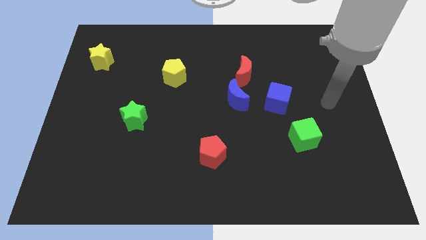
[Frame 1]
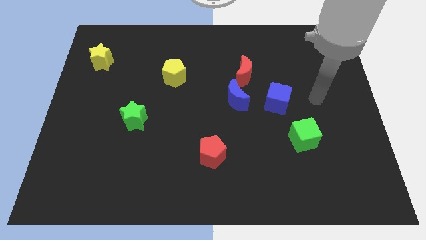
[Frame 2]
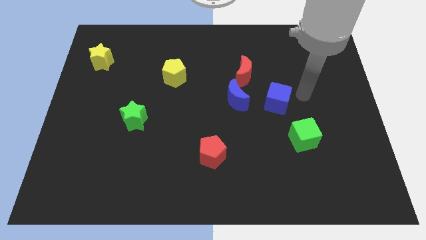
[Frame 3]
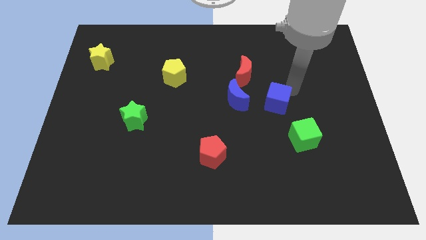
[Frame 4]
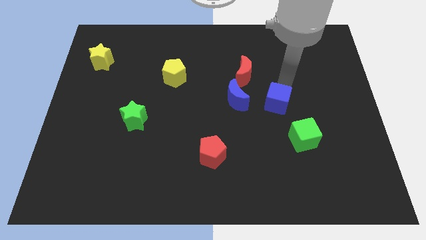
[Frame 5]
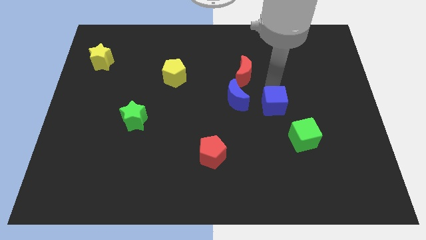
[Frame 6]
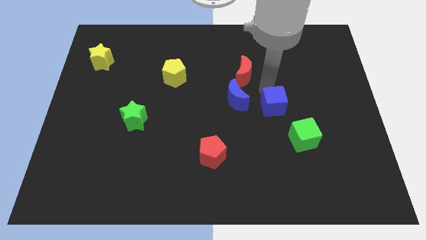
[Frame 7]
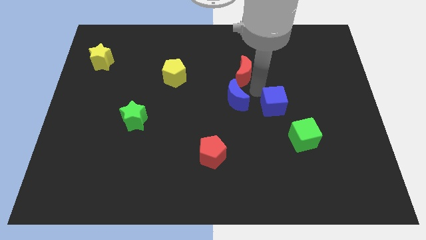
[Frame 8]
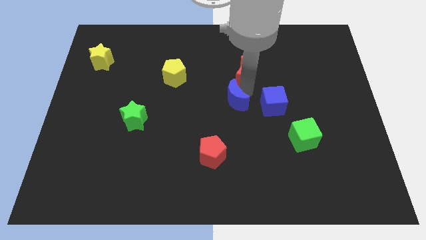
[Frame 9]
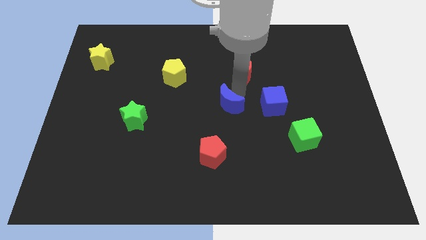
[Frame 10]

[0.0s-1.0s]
move the red moon away from the blue moon

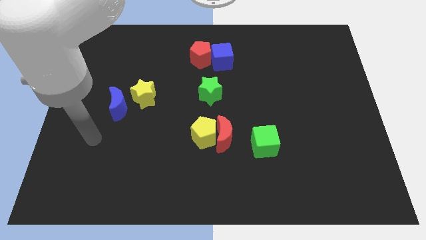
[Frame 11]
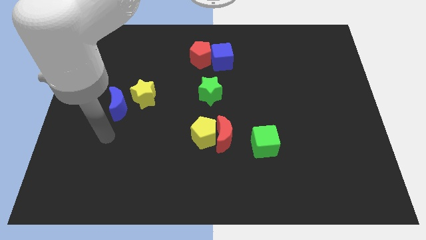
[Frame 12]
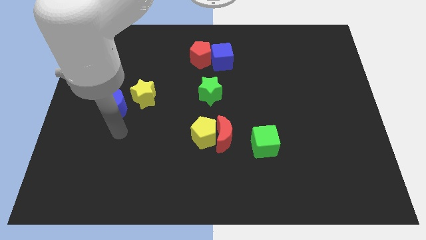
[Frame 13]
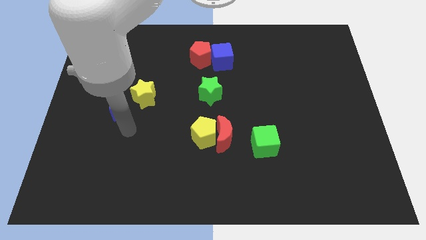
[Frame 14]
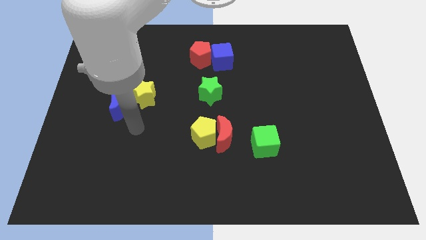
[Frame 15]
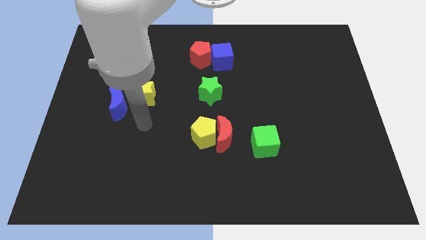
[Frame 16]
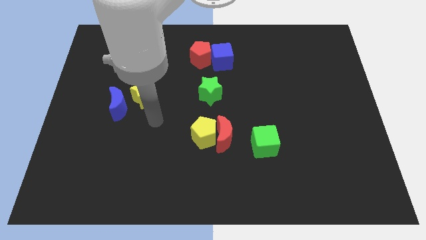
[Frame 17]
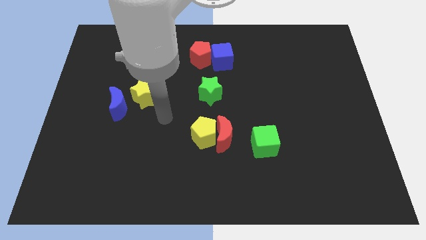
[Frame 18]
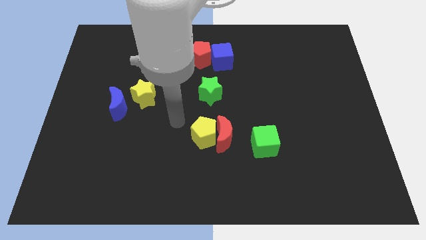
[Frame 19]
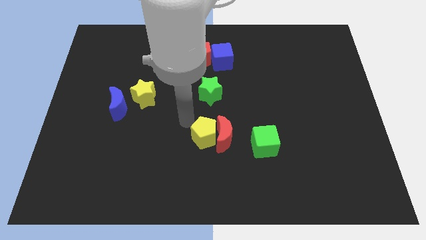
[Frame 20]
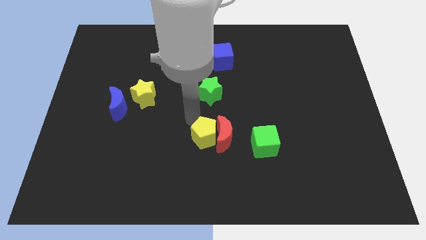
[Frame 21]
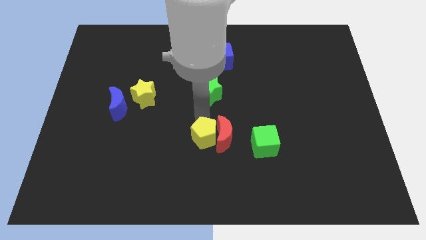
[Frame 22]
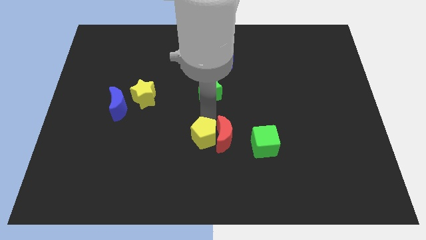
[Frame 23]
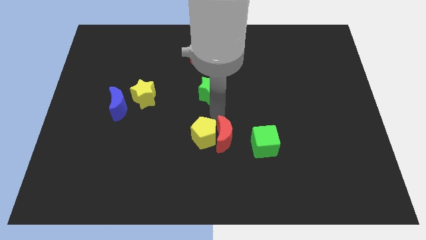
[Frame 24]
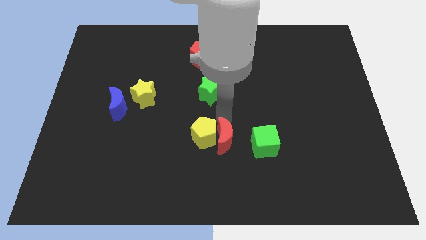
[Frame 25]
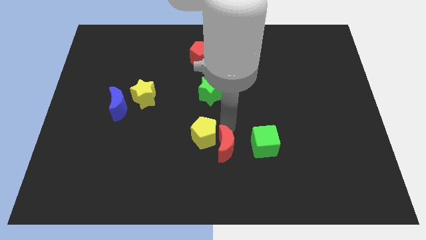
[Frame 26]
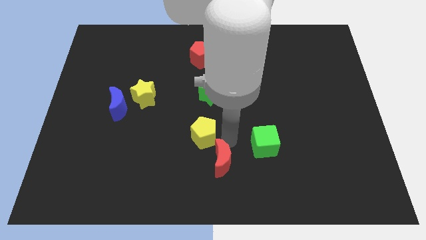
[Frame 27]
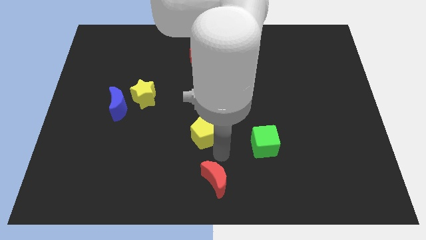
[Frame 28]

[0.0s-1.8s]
move the yellow pentagon away from the red moon

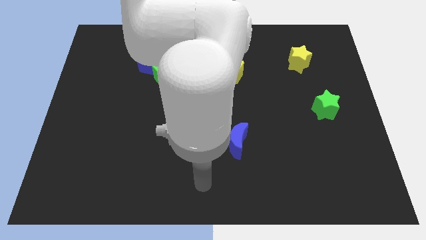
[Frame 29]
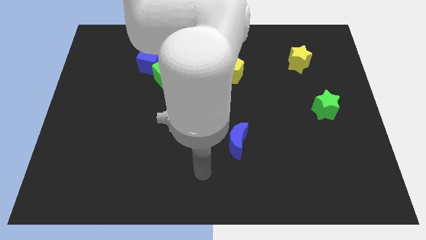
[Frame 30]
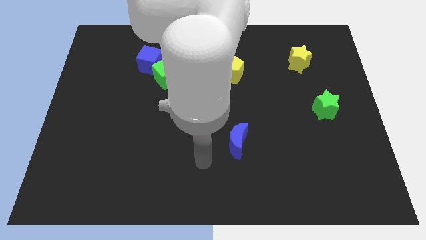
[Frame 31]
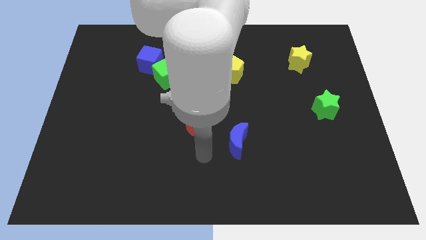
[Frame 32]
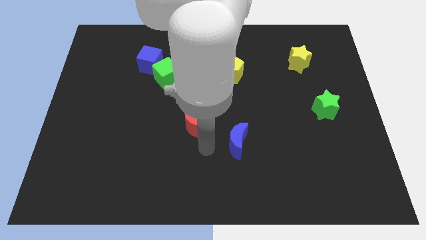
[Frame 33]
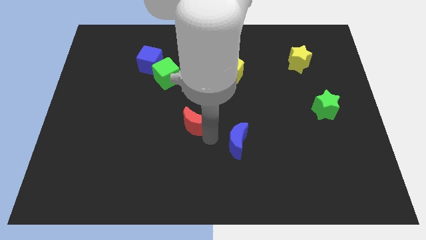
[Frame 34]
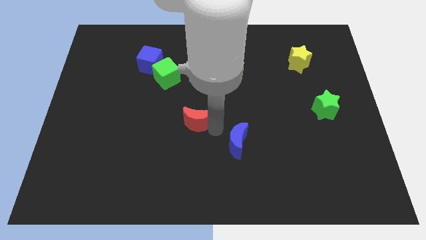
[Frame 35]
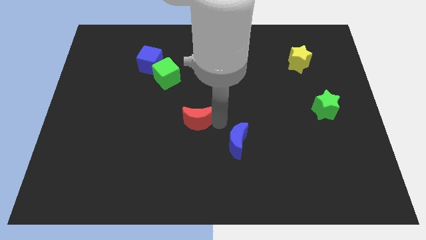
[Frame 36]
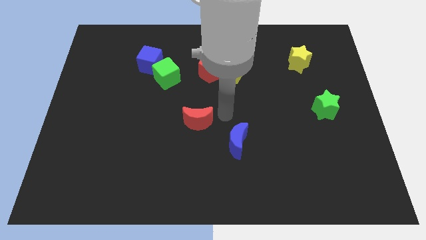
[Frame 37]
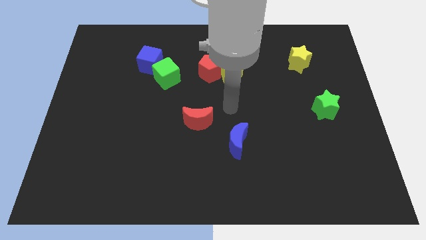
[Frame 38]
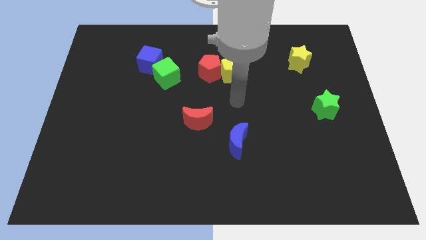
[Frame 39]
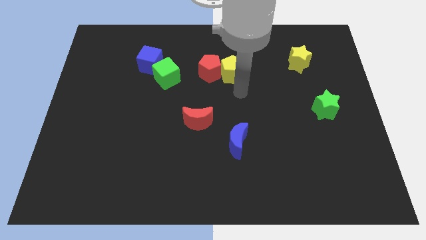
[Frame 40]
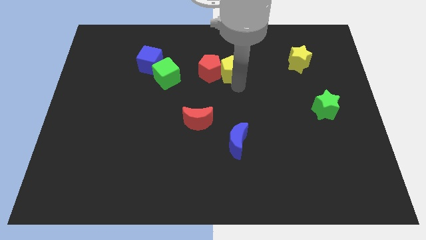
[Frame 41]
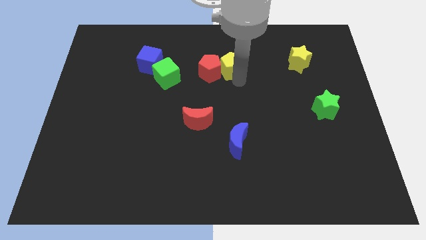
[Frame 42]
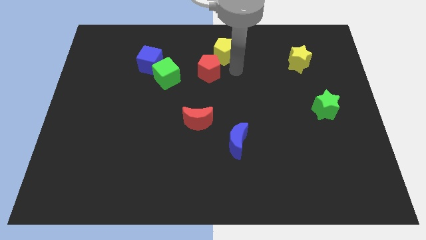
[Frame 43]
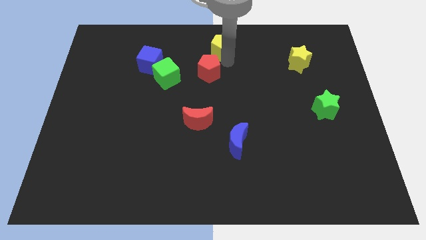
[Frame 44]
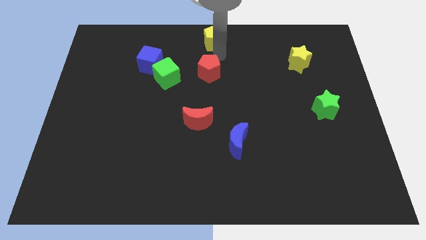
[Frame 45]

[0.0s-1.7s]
separate the red pentagon from the yellow pentagon

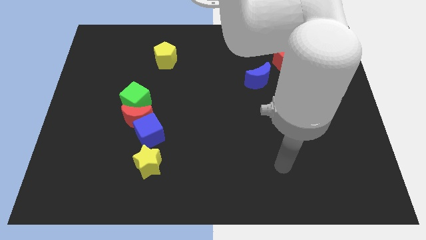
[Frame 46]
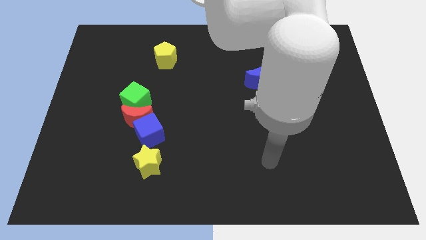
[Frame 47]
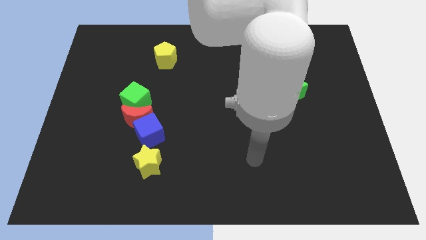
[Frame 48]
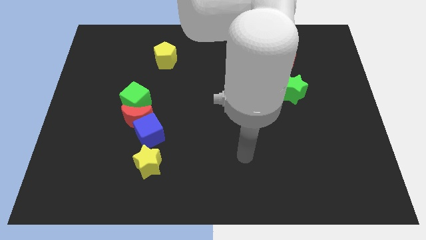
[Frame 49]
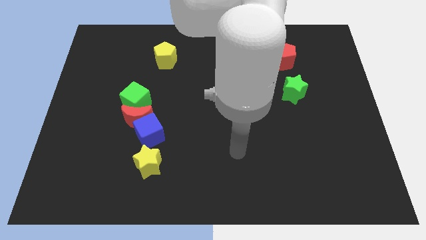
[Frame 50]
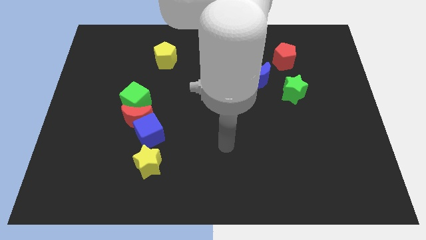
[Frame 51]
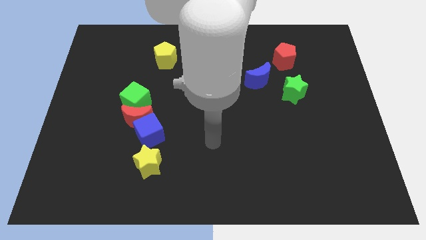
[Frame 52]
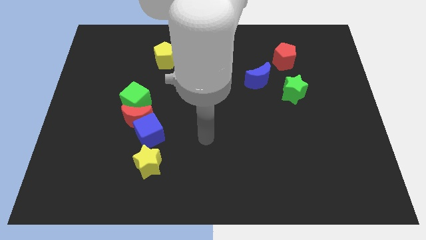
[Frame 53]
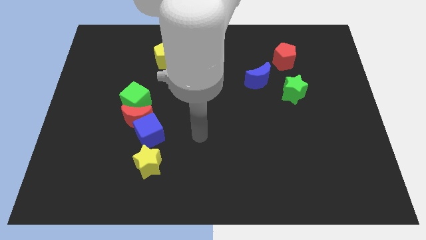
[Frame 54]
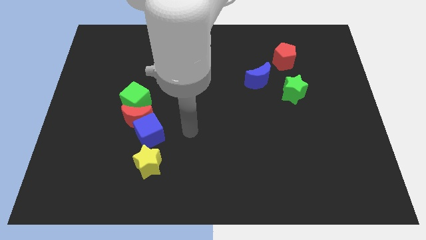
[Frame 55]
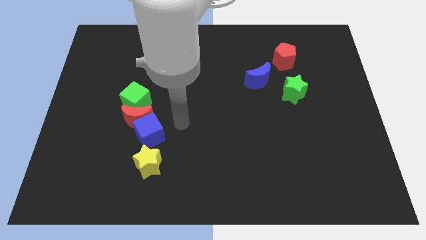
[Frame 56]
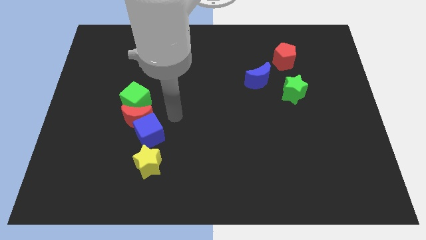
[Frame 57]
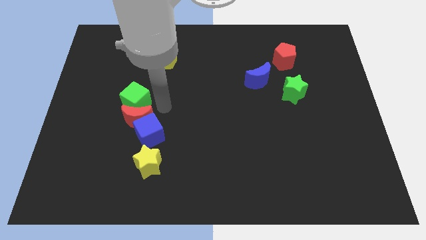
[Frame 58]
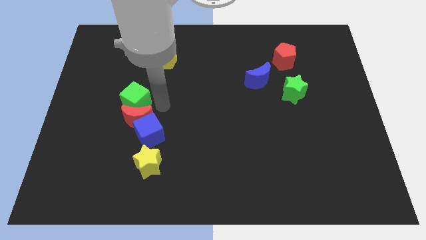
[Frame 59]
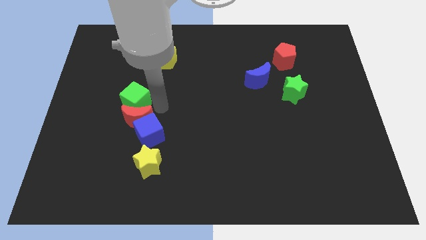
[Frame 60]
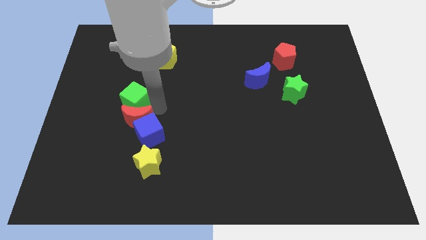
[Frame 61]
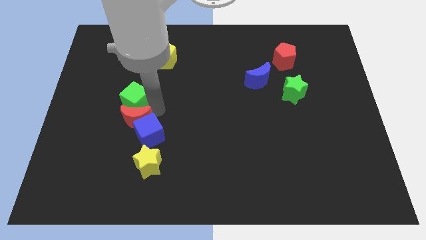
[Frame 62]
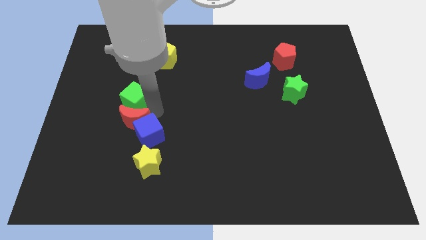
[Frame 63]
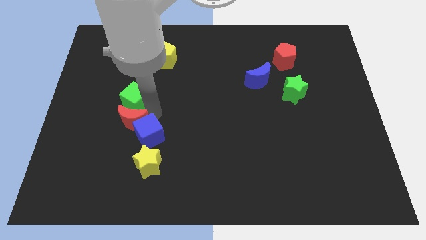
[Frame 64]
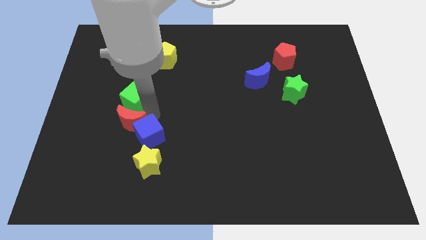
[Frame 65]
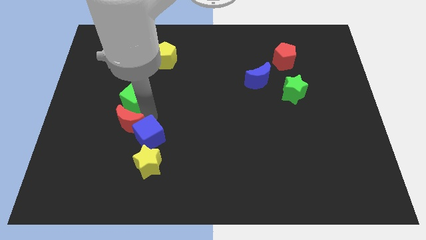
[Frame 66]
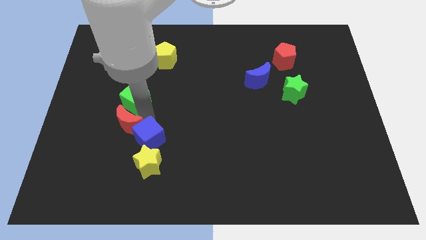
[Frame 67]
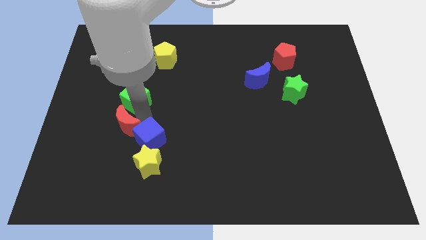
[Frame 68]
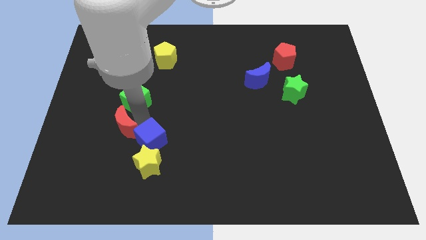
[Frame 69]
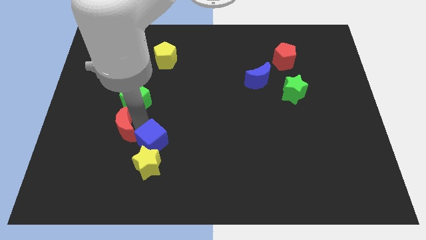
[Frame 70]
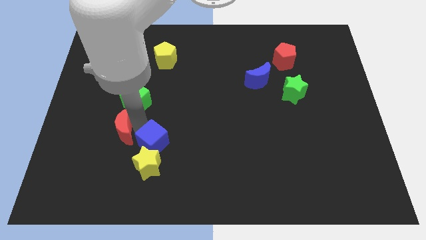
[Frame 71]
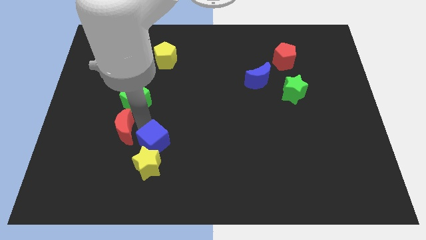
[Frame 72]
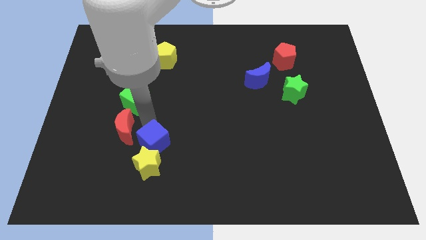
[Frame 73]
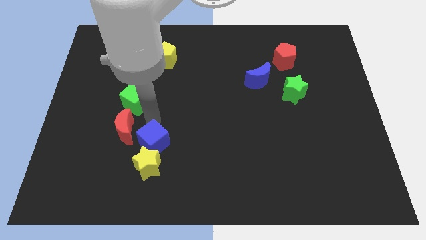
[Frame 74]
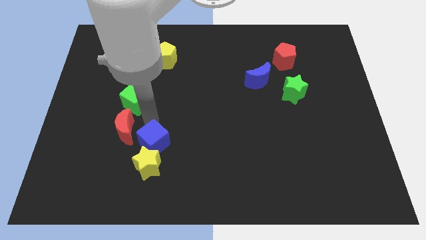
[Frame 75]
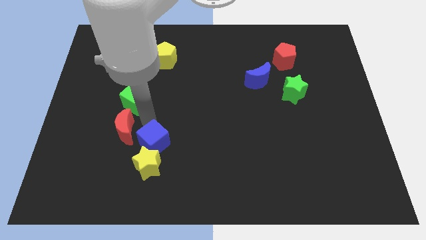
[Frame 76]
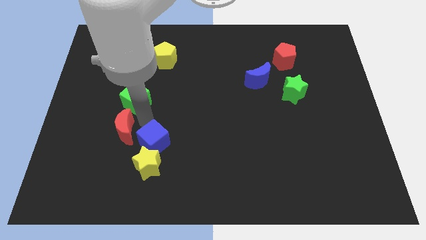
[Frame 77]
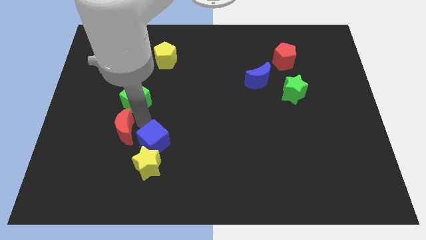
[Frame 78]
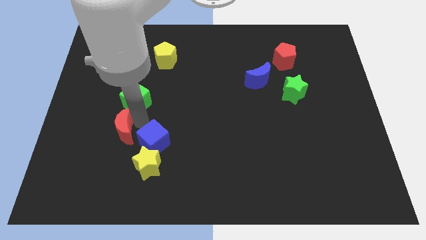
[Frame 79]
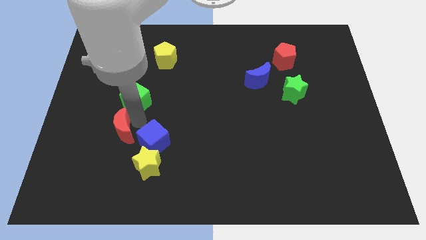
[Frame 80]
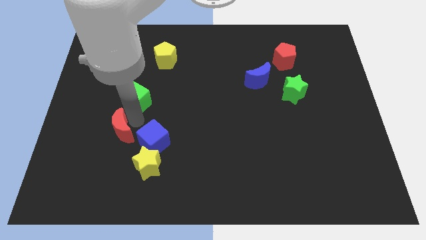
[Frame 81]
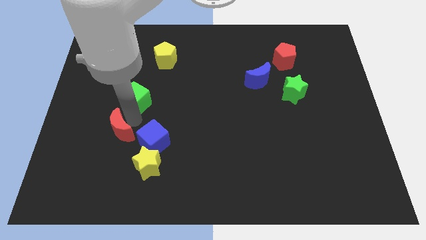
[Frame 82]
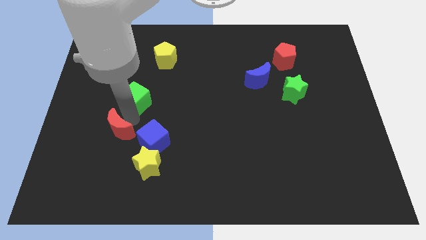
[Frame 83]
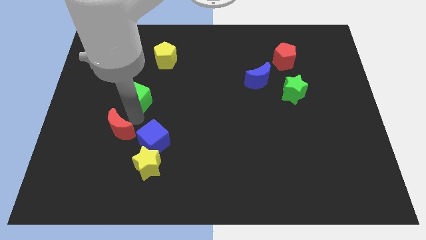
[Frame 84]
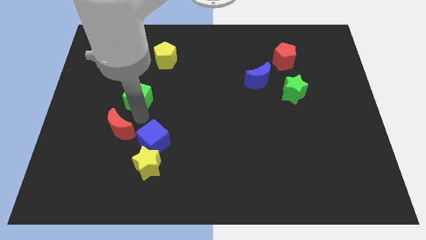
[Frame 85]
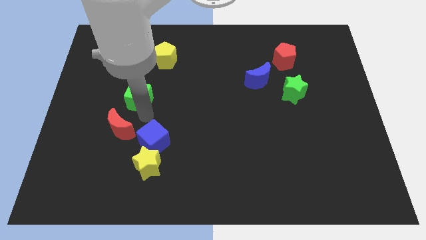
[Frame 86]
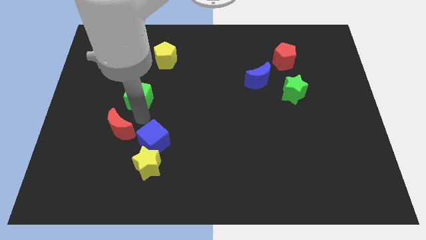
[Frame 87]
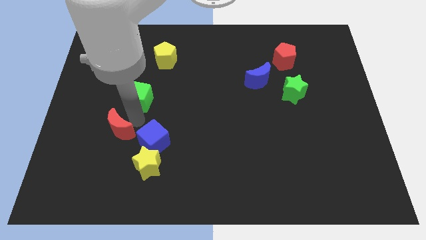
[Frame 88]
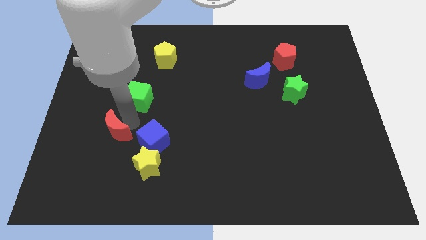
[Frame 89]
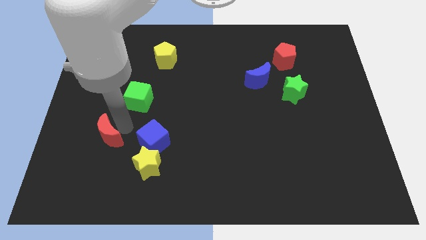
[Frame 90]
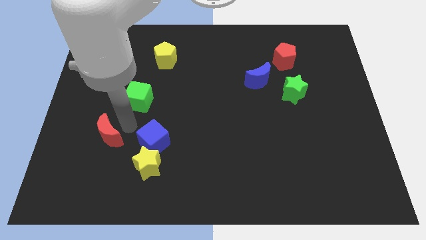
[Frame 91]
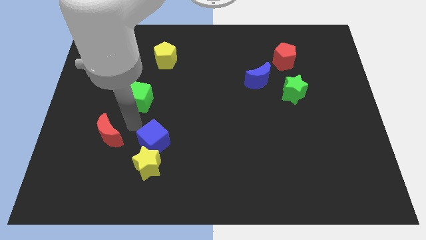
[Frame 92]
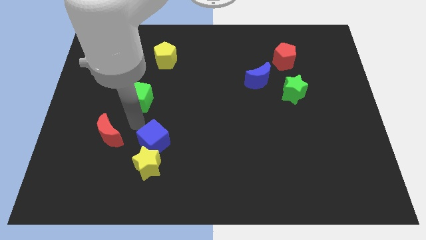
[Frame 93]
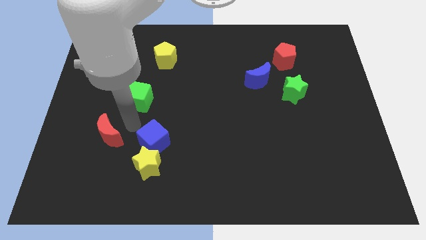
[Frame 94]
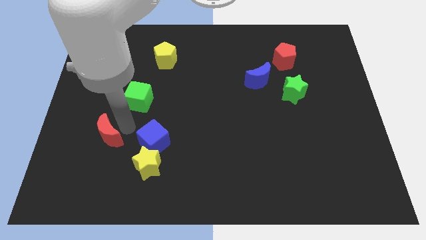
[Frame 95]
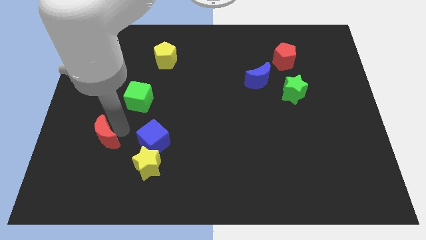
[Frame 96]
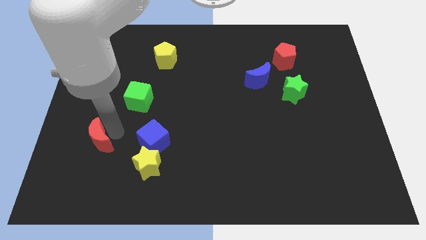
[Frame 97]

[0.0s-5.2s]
separate the red moon from the blue cube and green cube
